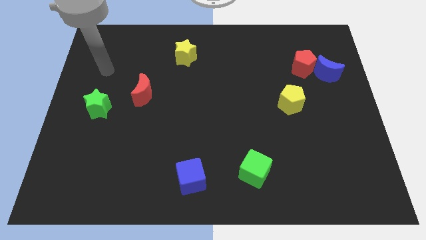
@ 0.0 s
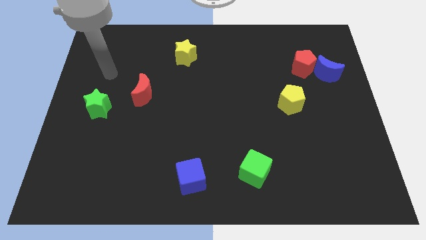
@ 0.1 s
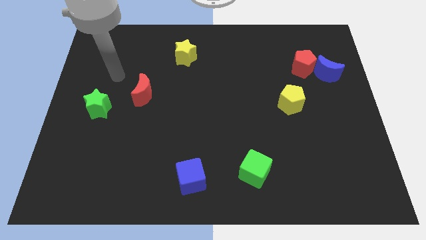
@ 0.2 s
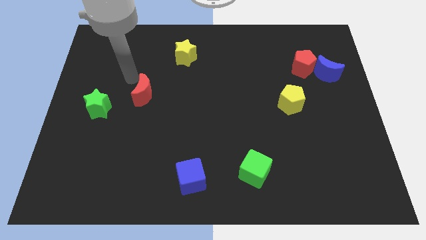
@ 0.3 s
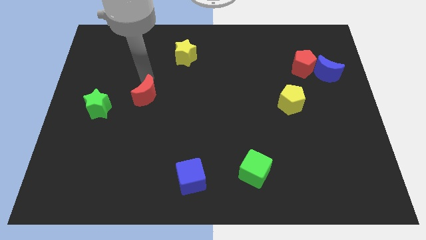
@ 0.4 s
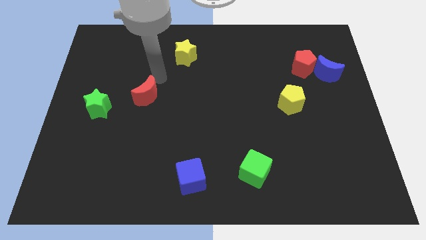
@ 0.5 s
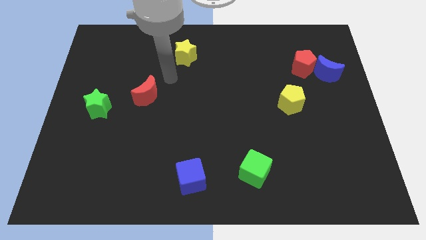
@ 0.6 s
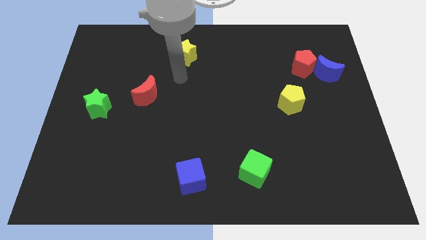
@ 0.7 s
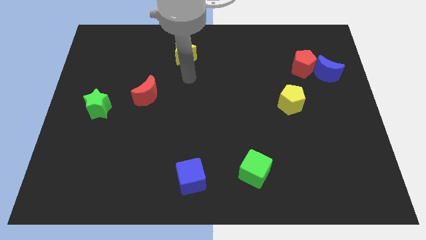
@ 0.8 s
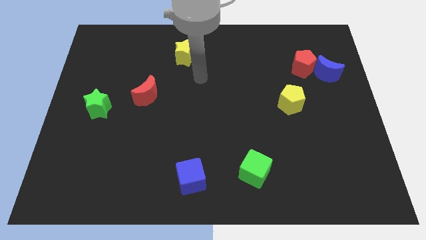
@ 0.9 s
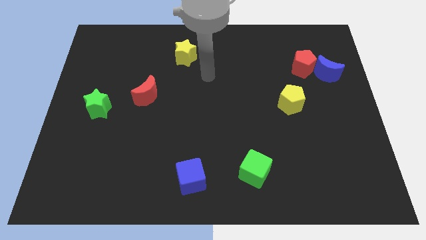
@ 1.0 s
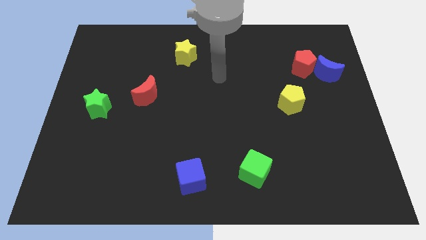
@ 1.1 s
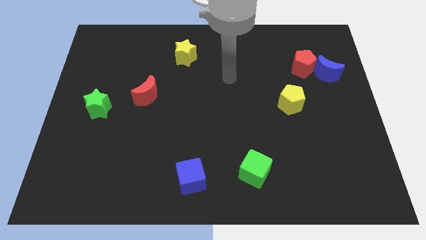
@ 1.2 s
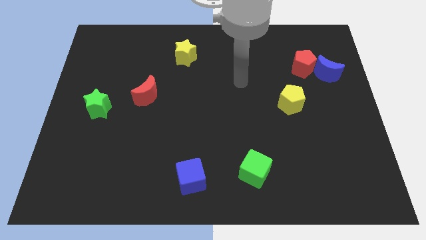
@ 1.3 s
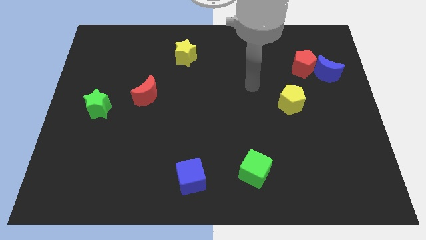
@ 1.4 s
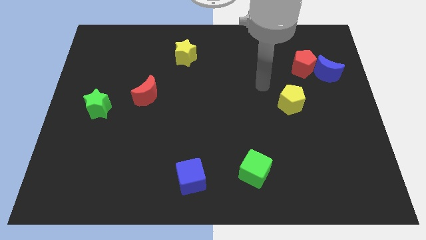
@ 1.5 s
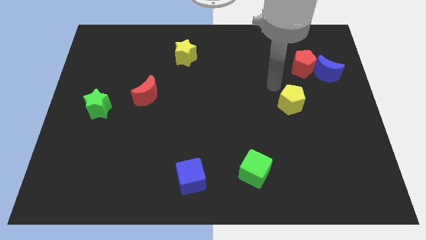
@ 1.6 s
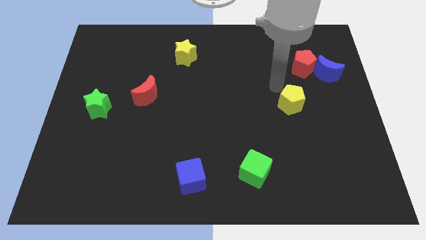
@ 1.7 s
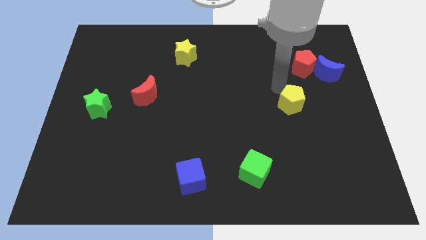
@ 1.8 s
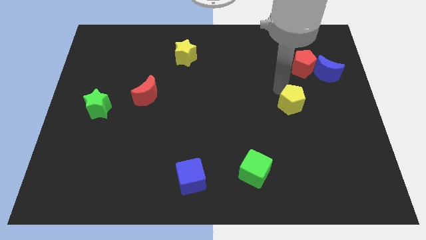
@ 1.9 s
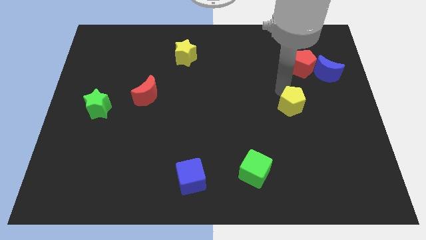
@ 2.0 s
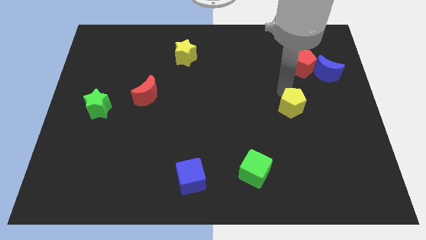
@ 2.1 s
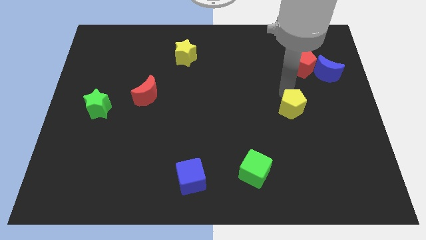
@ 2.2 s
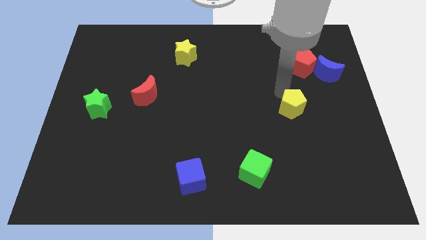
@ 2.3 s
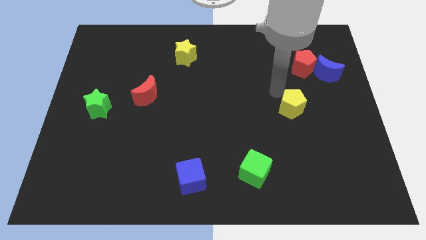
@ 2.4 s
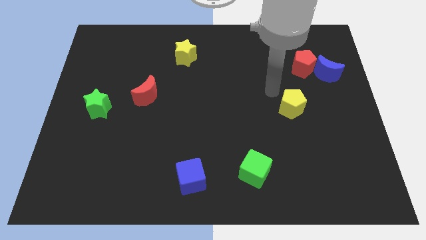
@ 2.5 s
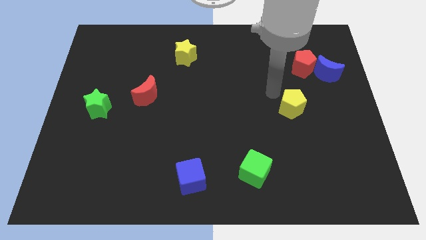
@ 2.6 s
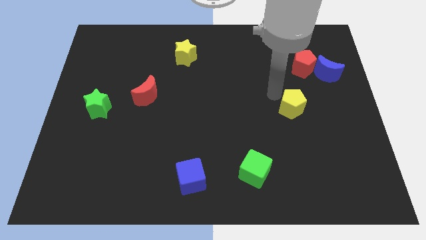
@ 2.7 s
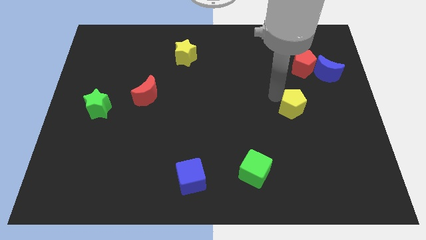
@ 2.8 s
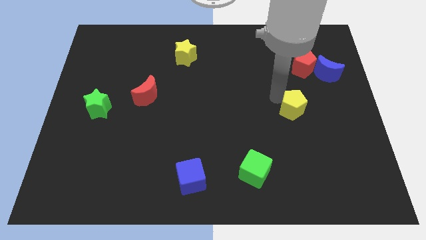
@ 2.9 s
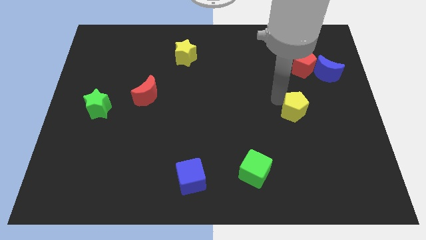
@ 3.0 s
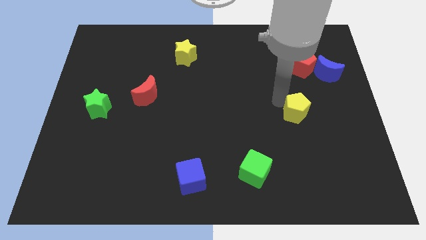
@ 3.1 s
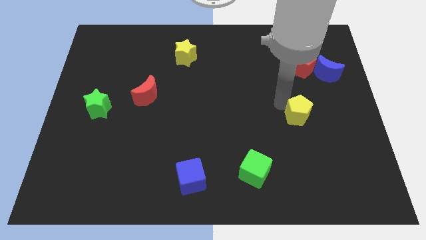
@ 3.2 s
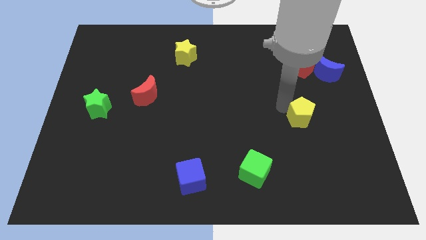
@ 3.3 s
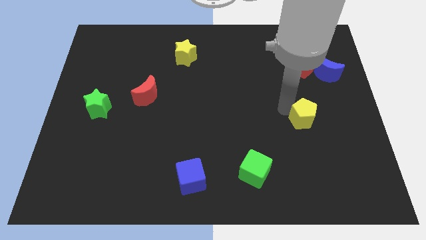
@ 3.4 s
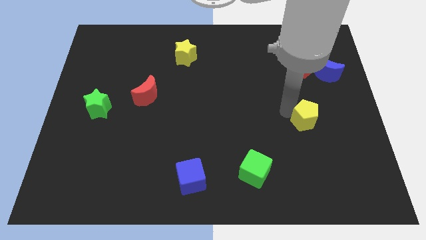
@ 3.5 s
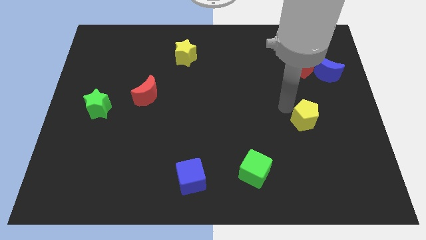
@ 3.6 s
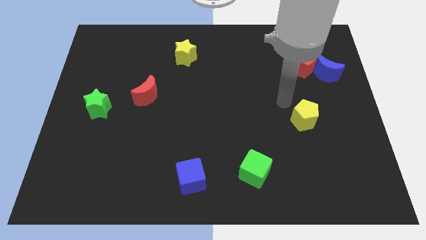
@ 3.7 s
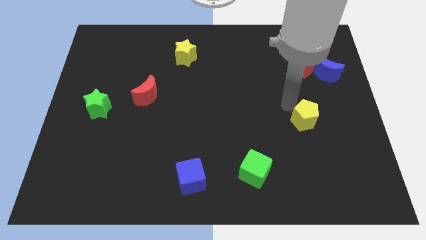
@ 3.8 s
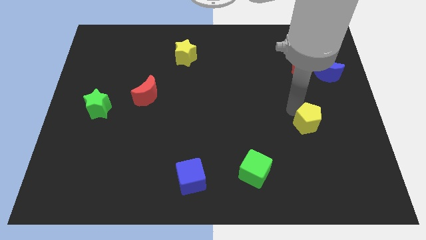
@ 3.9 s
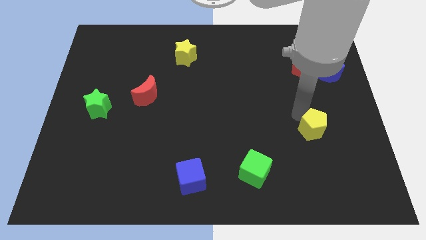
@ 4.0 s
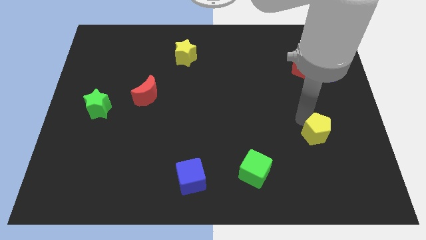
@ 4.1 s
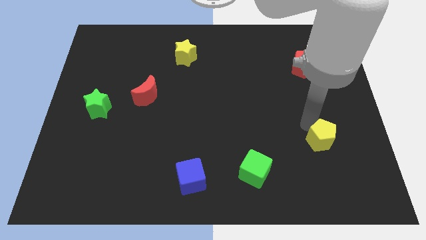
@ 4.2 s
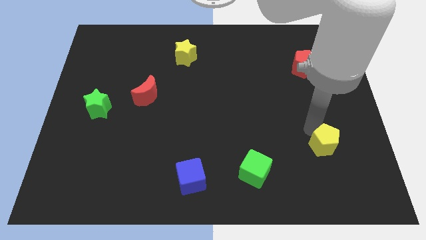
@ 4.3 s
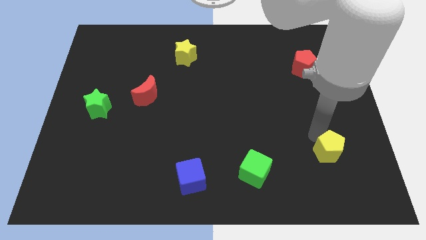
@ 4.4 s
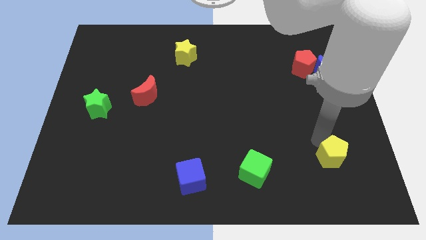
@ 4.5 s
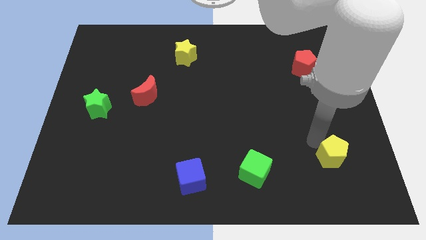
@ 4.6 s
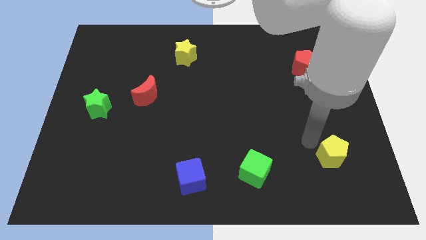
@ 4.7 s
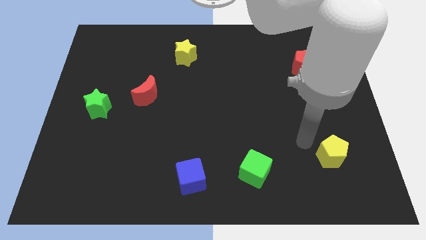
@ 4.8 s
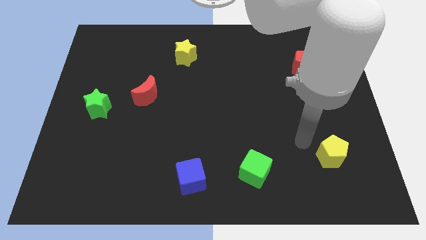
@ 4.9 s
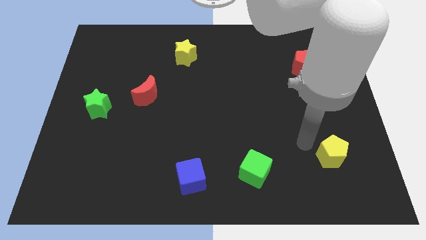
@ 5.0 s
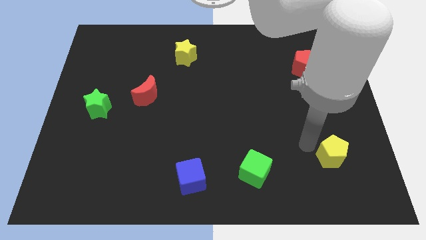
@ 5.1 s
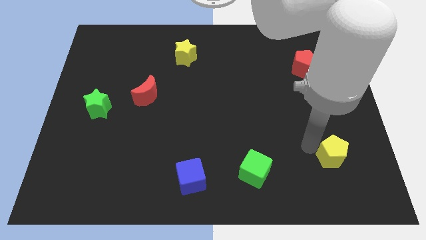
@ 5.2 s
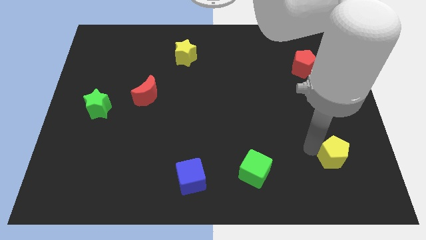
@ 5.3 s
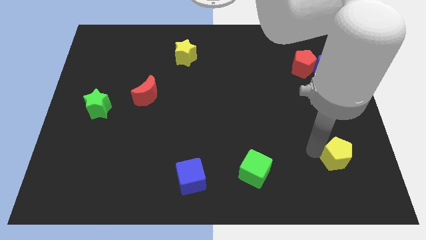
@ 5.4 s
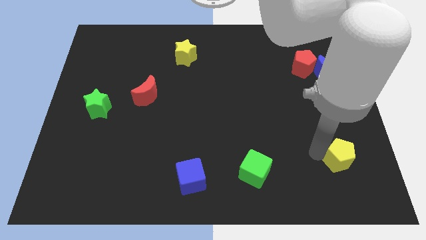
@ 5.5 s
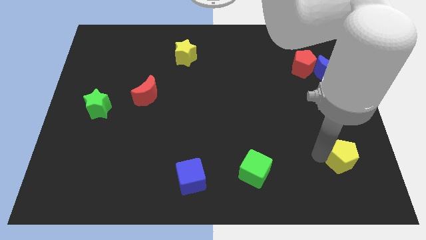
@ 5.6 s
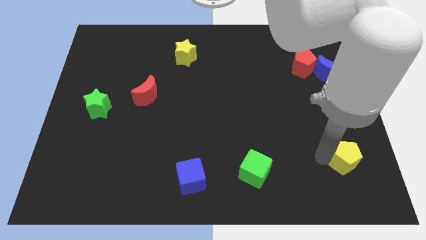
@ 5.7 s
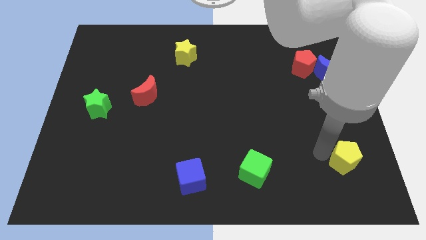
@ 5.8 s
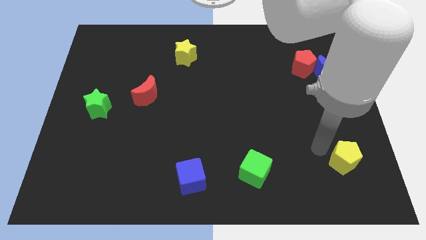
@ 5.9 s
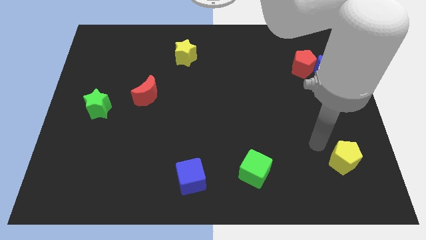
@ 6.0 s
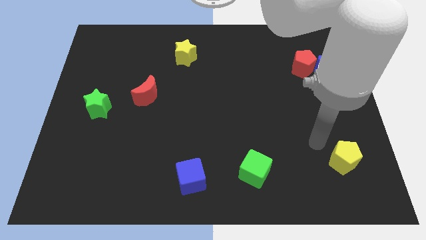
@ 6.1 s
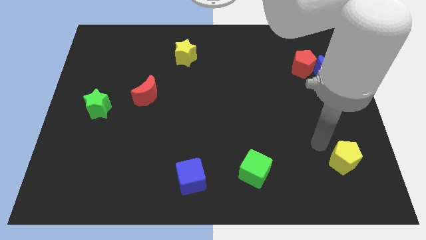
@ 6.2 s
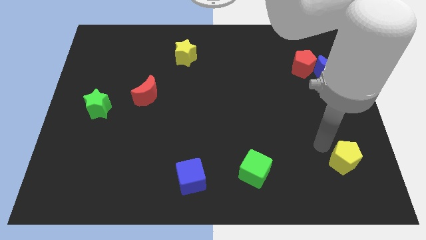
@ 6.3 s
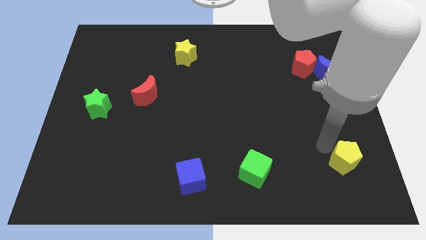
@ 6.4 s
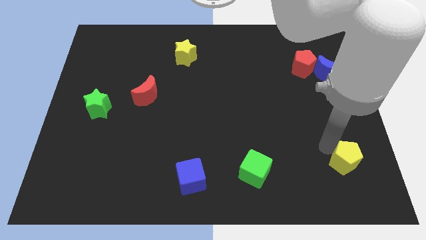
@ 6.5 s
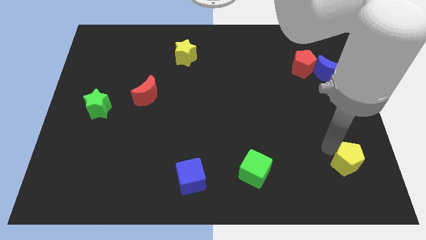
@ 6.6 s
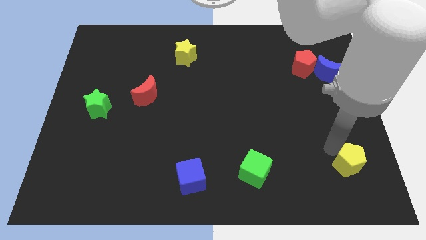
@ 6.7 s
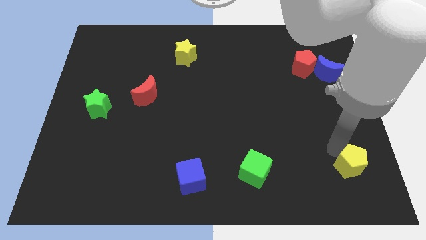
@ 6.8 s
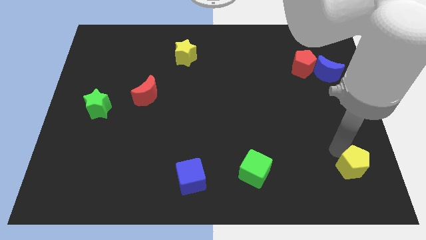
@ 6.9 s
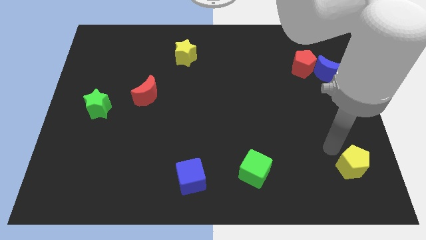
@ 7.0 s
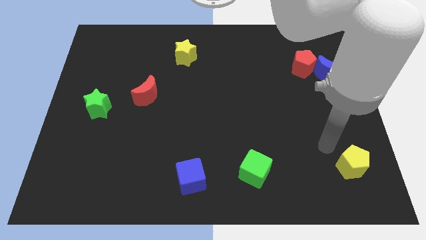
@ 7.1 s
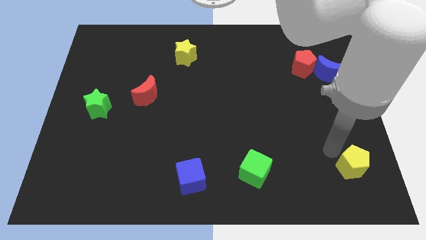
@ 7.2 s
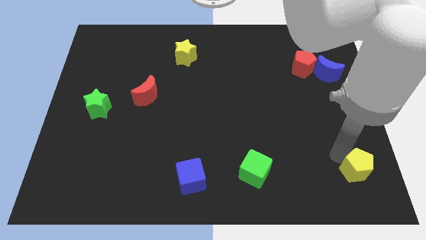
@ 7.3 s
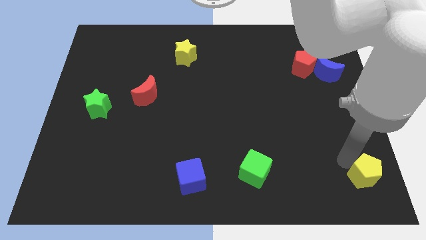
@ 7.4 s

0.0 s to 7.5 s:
move the yellow pentagon to the bottom right corner
